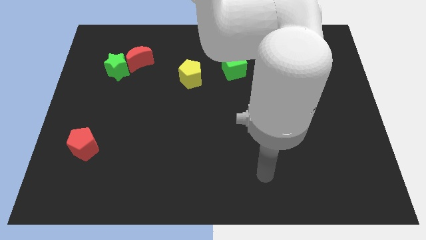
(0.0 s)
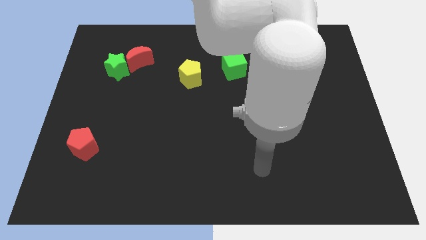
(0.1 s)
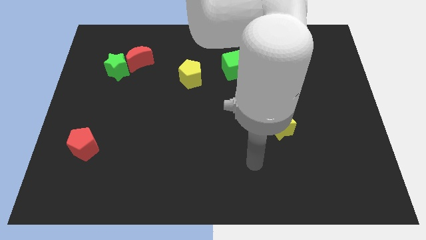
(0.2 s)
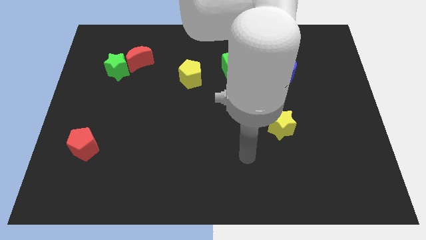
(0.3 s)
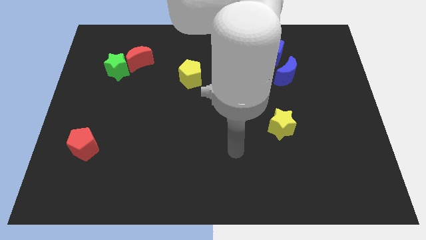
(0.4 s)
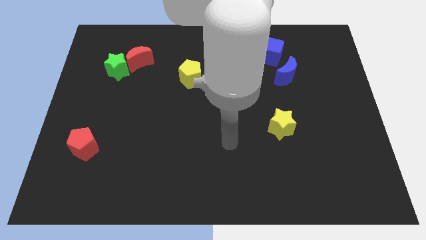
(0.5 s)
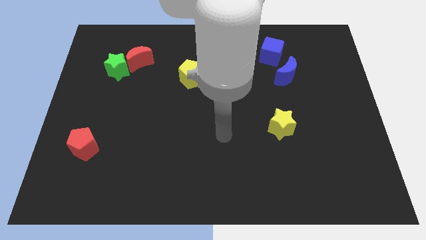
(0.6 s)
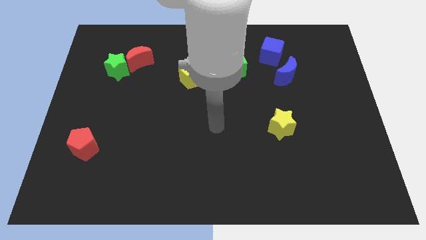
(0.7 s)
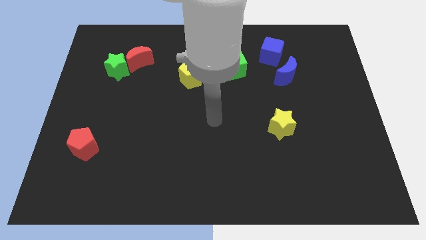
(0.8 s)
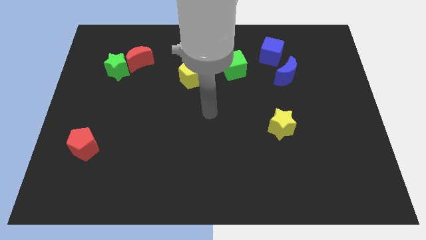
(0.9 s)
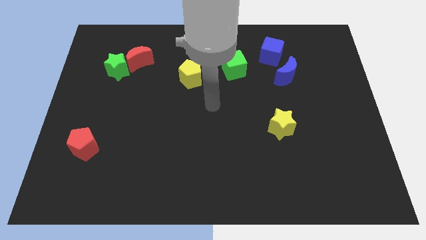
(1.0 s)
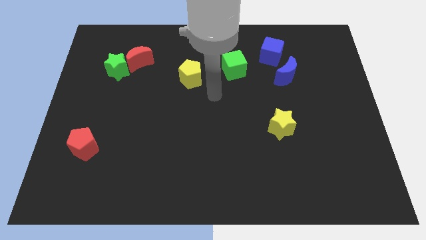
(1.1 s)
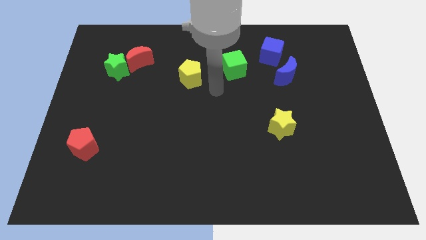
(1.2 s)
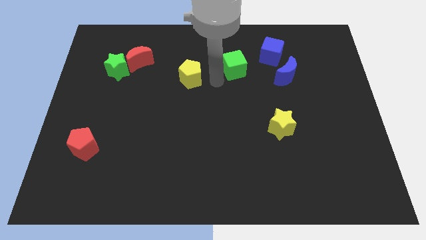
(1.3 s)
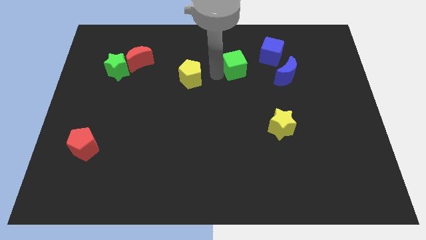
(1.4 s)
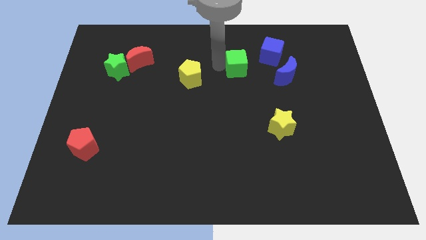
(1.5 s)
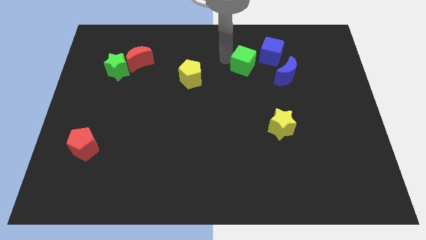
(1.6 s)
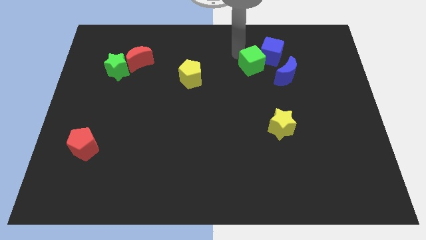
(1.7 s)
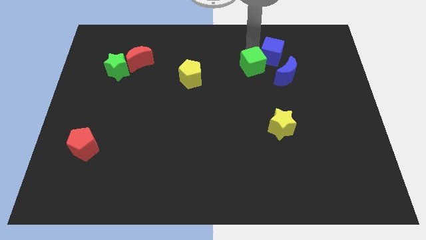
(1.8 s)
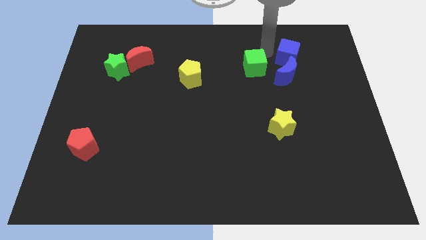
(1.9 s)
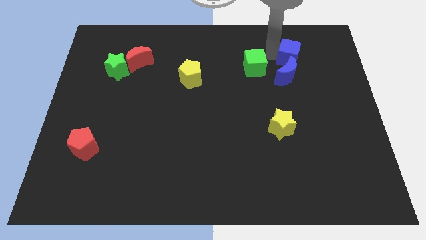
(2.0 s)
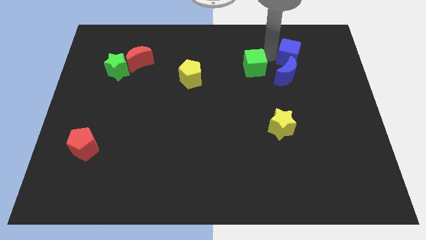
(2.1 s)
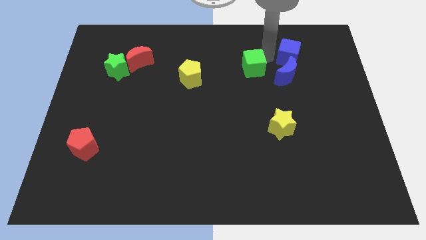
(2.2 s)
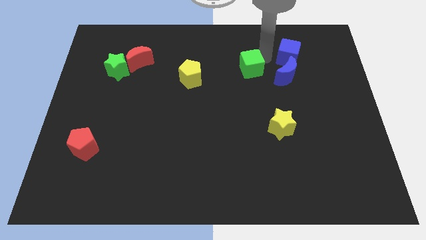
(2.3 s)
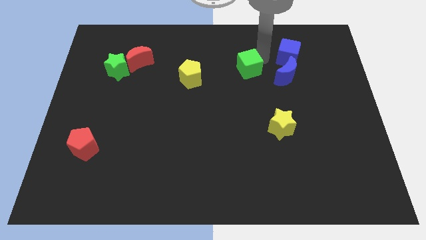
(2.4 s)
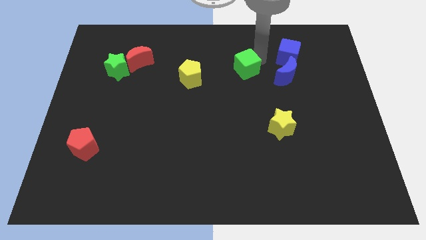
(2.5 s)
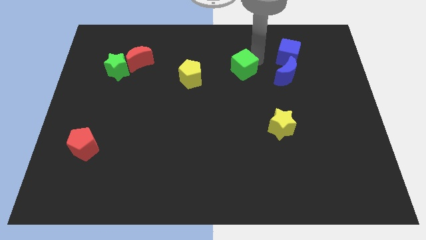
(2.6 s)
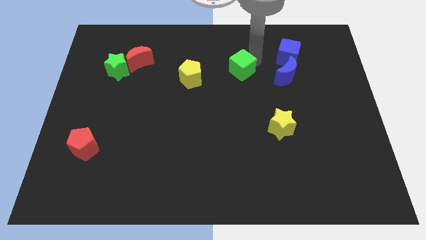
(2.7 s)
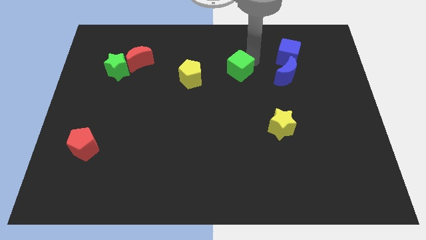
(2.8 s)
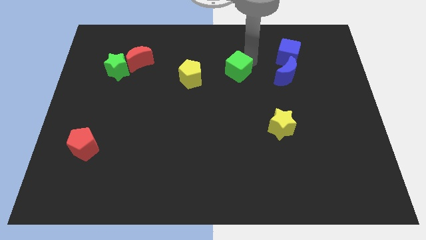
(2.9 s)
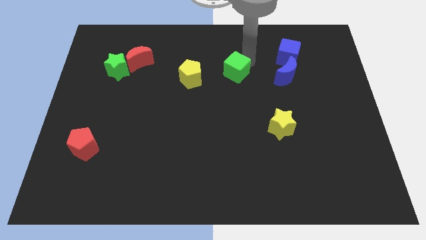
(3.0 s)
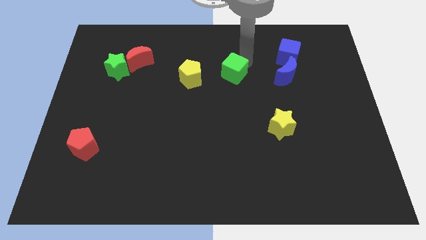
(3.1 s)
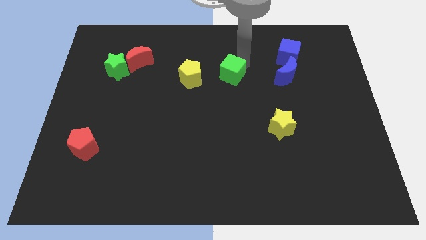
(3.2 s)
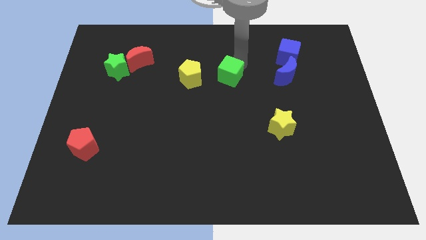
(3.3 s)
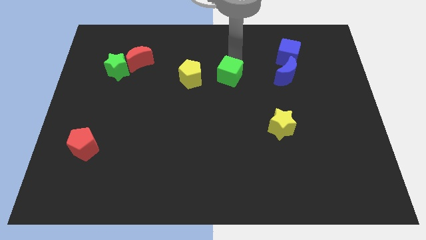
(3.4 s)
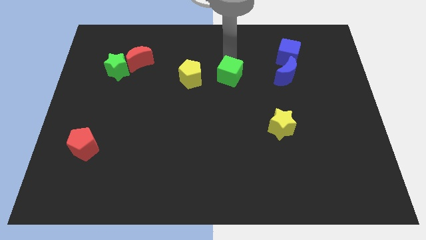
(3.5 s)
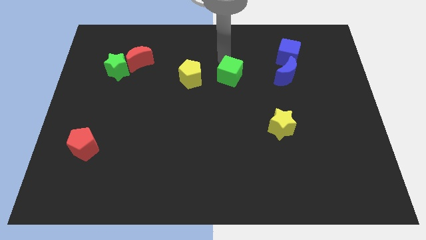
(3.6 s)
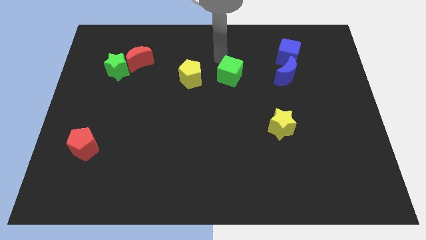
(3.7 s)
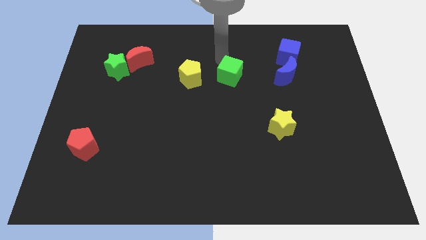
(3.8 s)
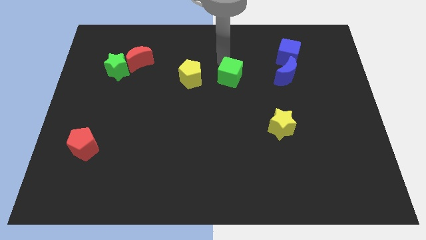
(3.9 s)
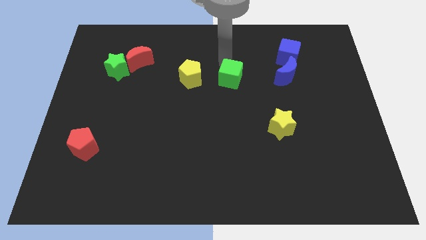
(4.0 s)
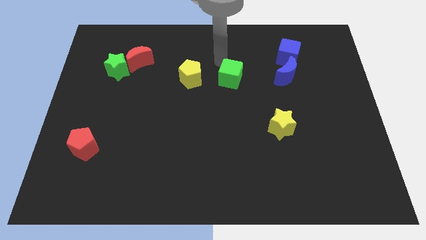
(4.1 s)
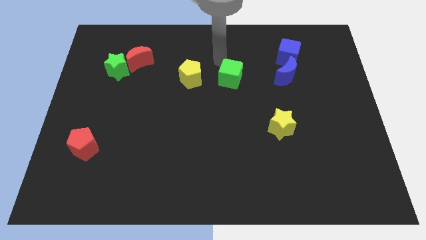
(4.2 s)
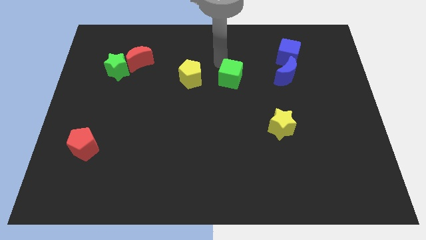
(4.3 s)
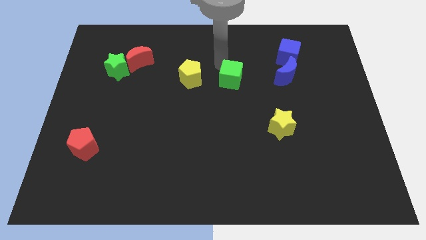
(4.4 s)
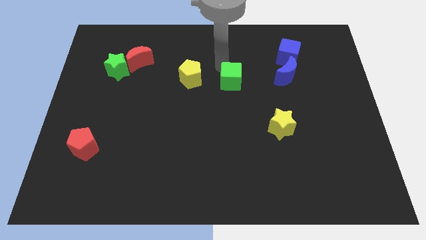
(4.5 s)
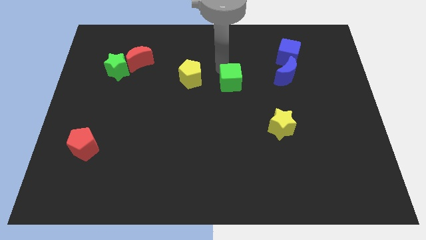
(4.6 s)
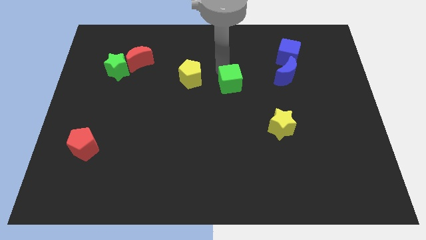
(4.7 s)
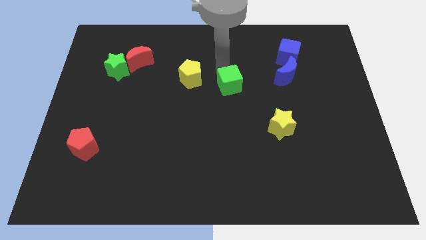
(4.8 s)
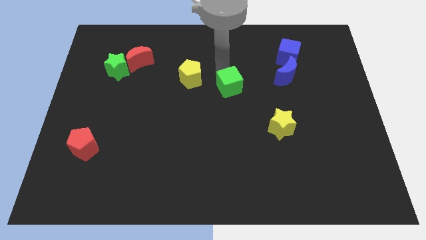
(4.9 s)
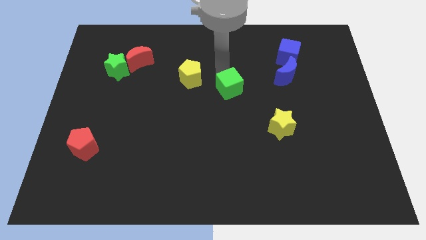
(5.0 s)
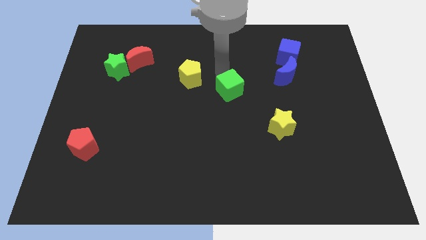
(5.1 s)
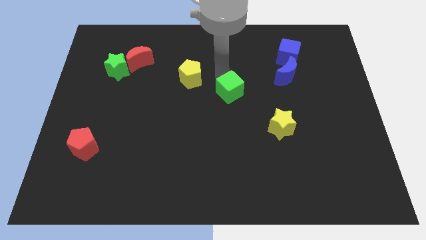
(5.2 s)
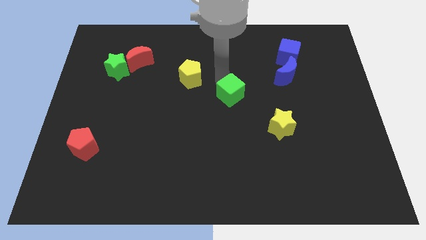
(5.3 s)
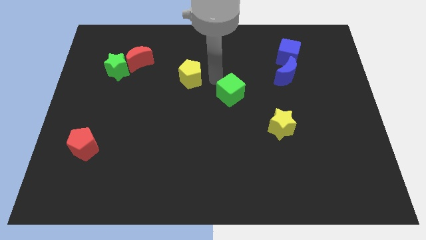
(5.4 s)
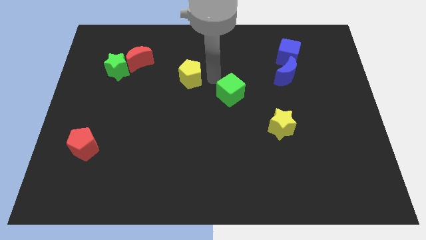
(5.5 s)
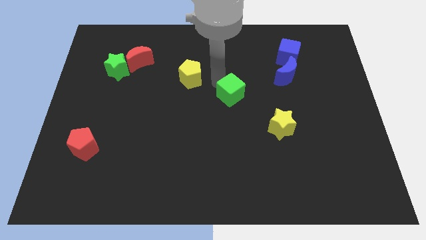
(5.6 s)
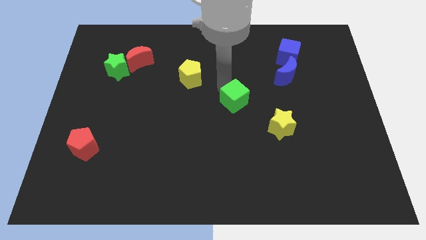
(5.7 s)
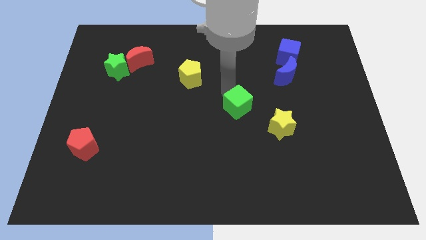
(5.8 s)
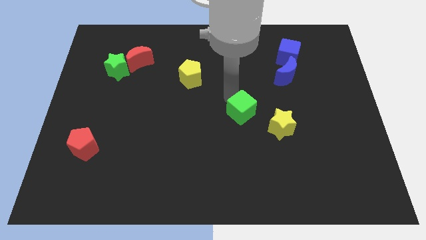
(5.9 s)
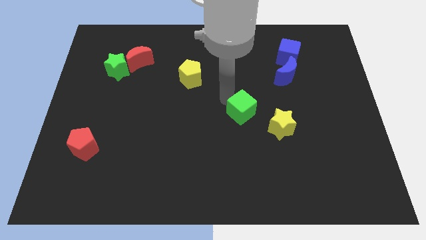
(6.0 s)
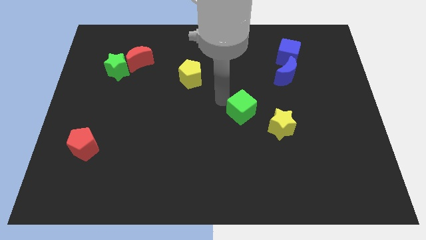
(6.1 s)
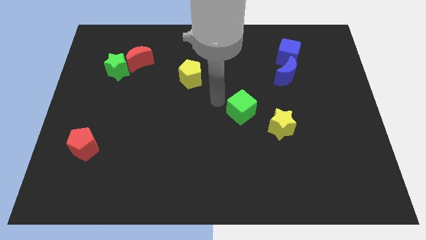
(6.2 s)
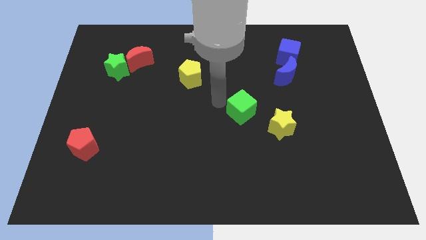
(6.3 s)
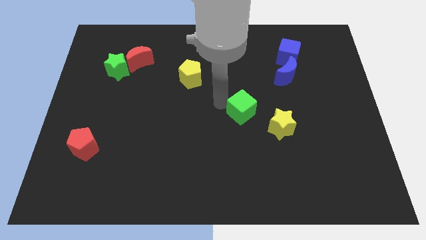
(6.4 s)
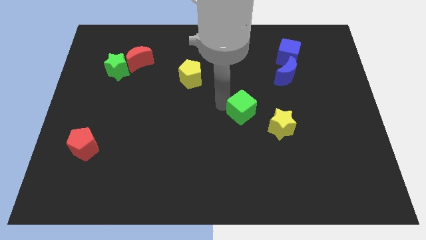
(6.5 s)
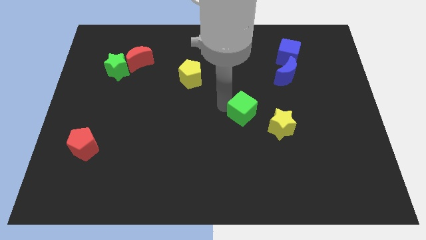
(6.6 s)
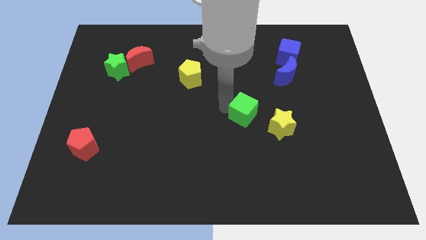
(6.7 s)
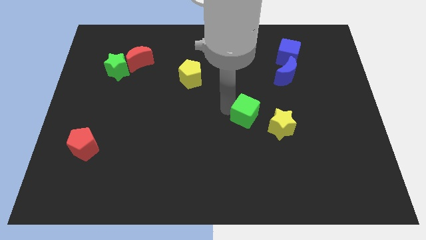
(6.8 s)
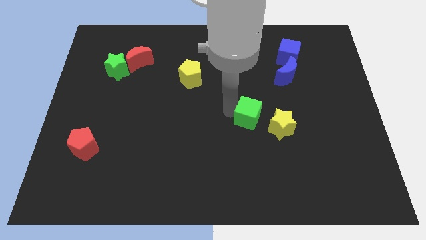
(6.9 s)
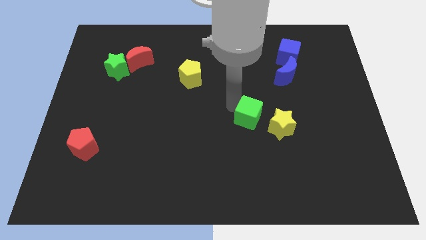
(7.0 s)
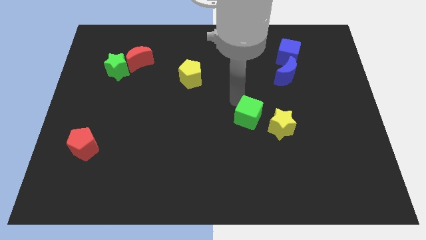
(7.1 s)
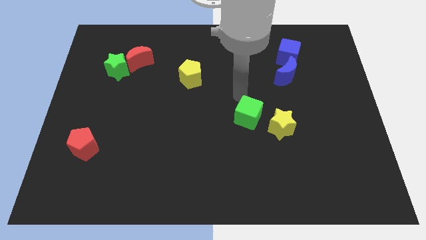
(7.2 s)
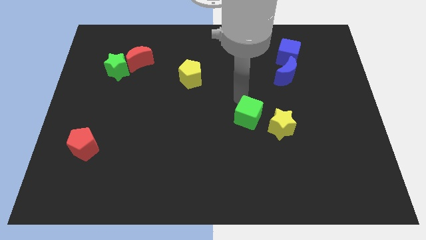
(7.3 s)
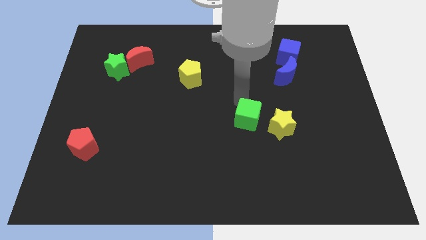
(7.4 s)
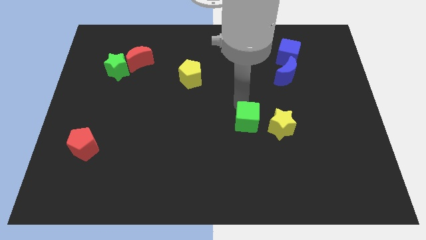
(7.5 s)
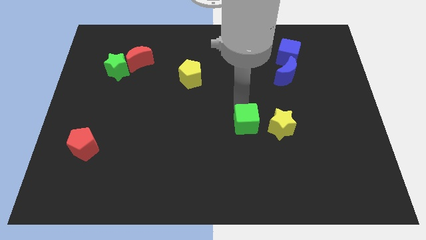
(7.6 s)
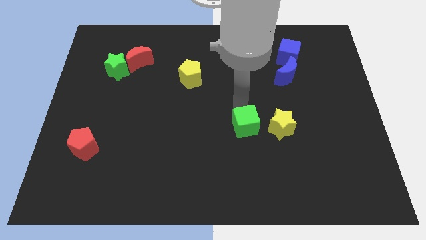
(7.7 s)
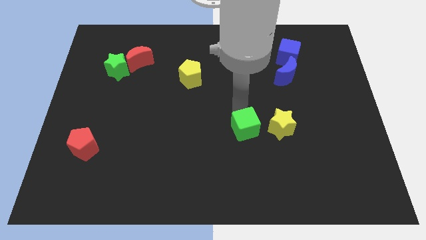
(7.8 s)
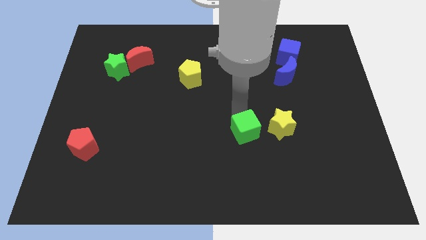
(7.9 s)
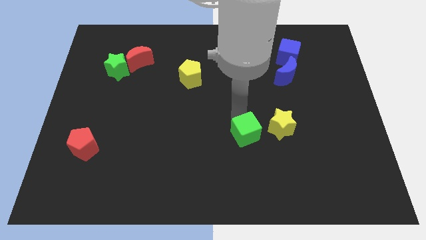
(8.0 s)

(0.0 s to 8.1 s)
slide the green cube to the bottom left of the yellow star
